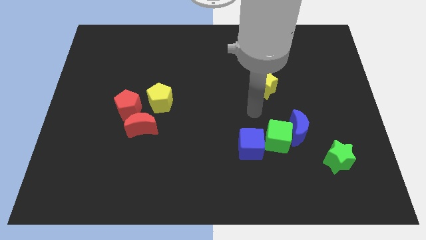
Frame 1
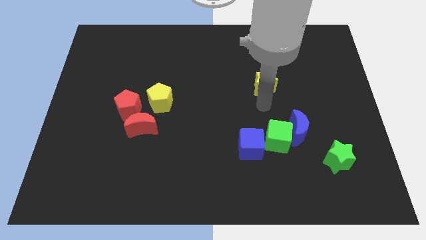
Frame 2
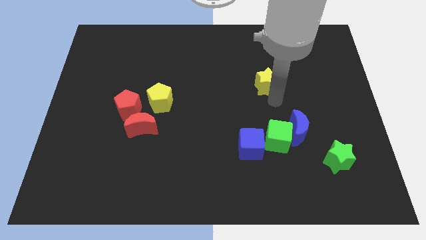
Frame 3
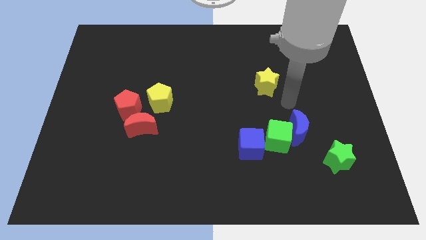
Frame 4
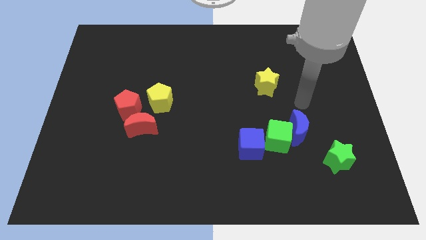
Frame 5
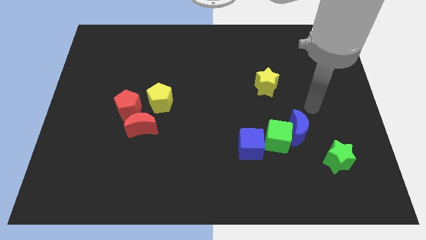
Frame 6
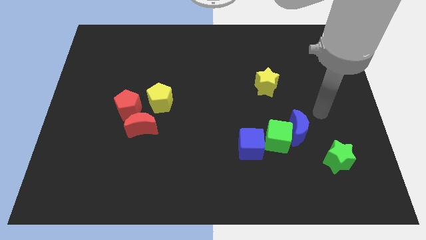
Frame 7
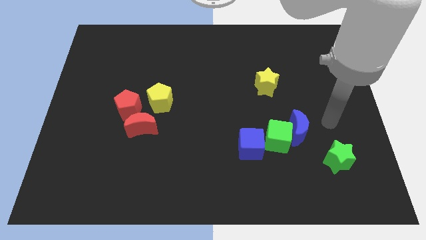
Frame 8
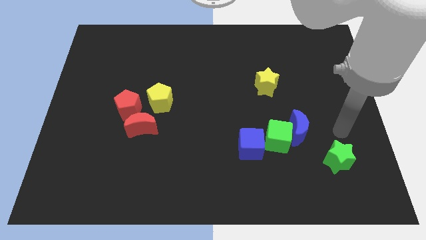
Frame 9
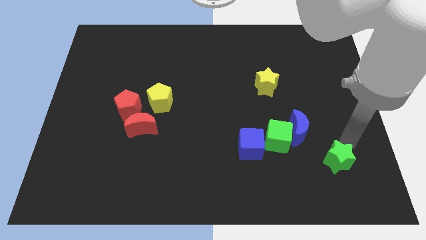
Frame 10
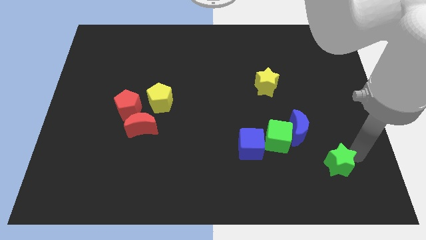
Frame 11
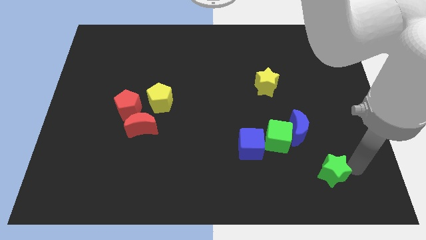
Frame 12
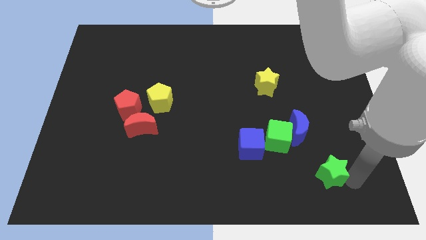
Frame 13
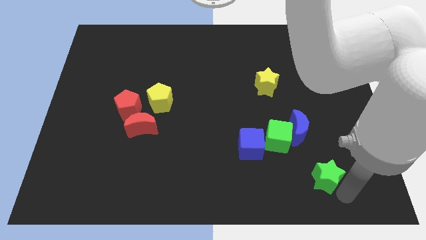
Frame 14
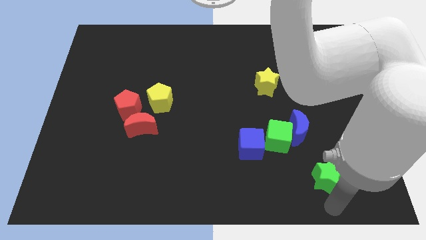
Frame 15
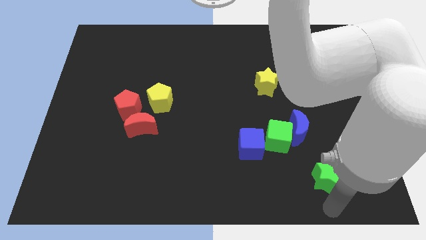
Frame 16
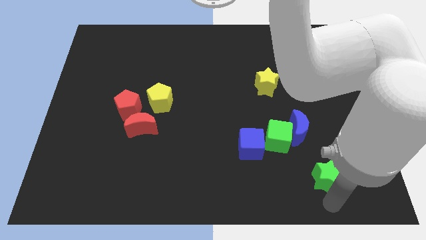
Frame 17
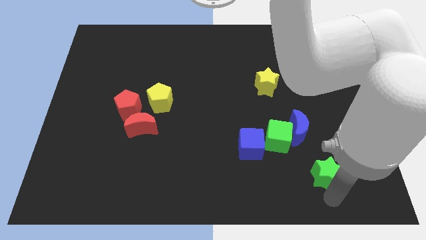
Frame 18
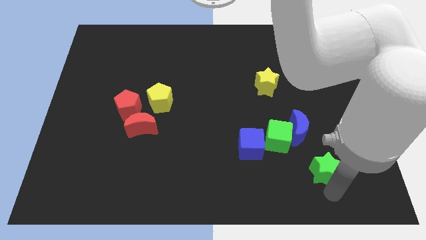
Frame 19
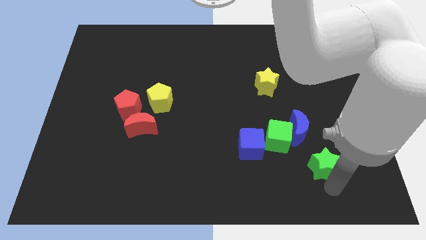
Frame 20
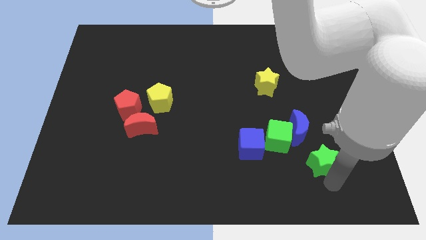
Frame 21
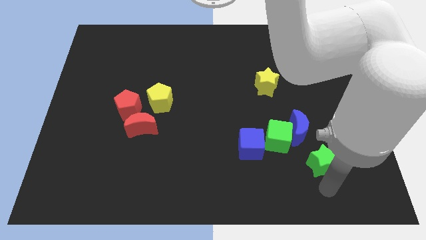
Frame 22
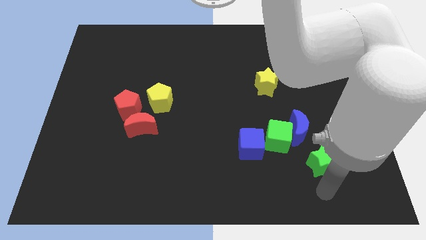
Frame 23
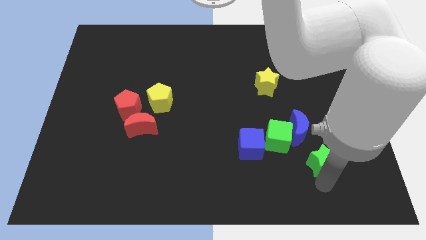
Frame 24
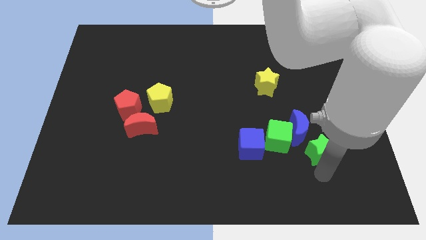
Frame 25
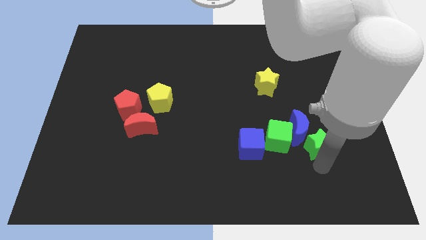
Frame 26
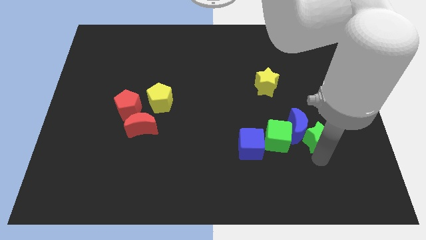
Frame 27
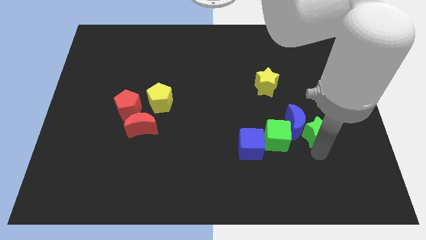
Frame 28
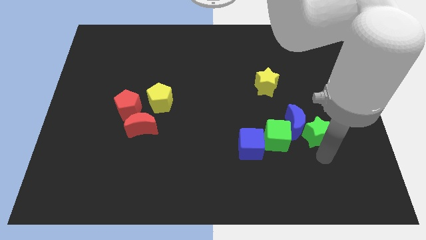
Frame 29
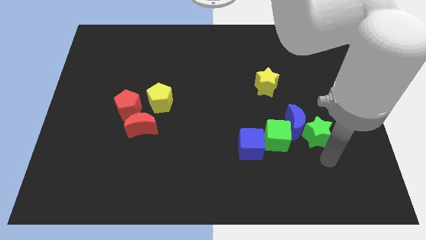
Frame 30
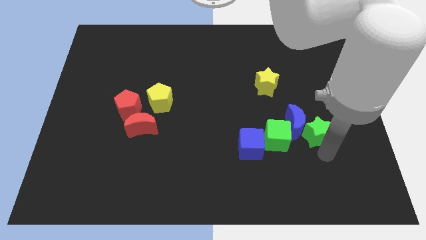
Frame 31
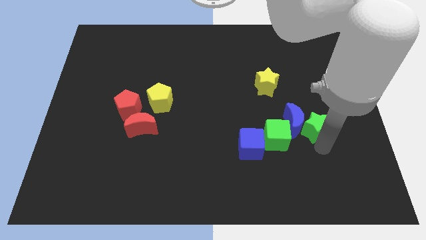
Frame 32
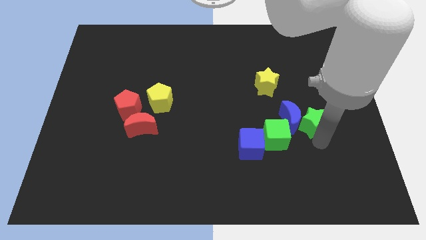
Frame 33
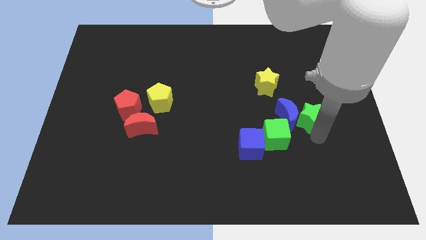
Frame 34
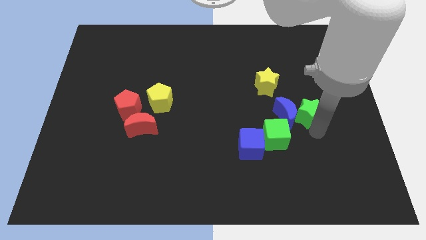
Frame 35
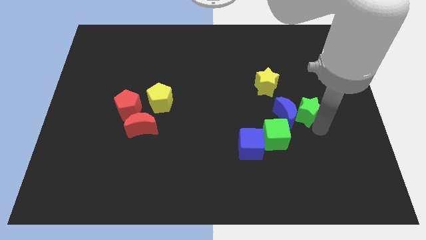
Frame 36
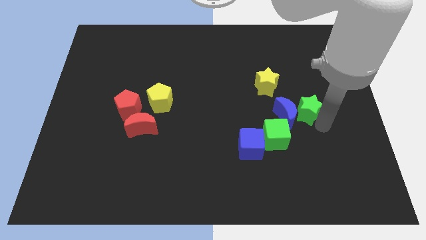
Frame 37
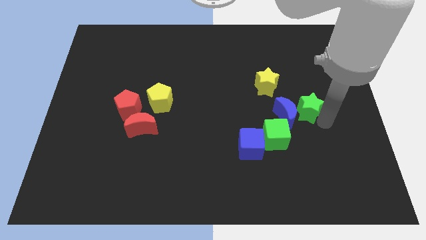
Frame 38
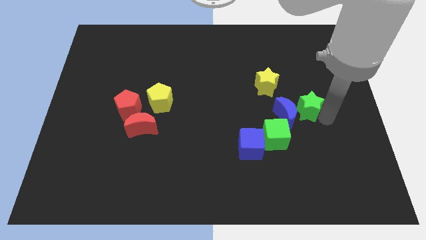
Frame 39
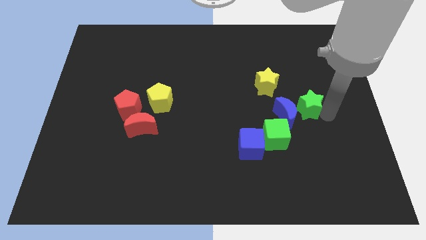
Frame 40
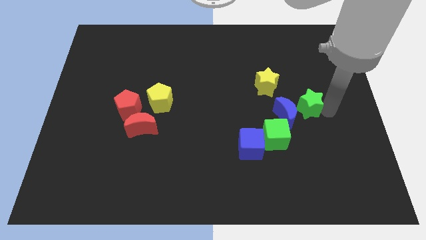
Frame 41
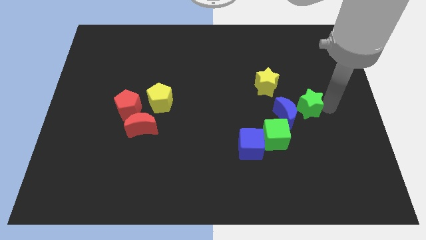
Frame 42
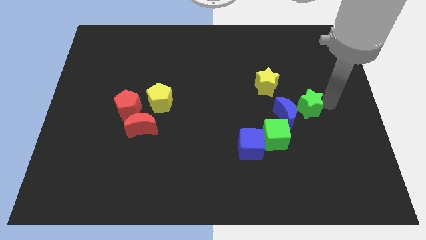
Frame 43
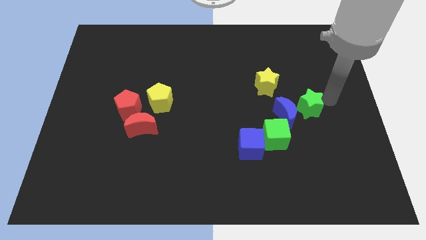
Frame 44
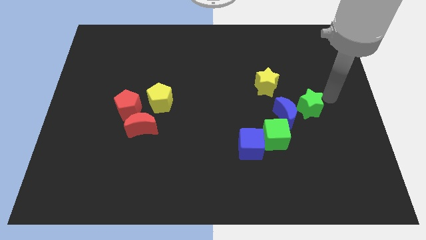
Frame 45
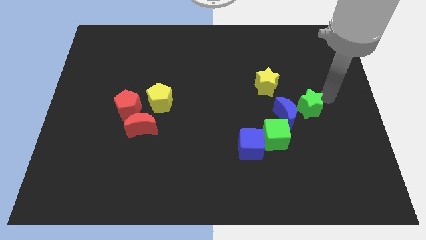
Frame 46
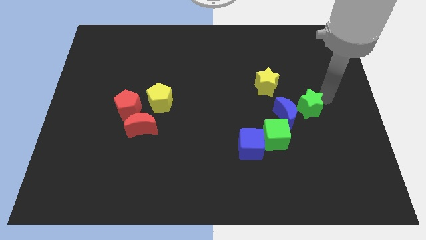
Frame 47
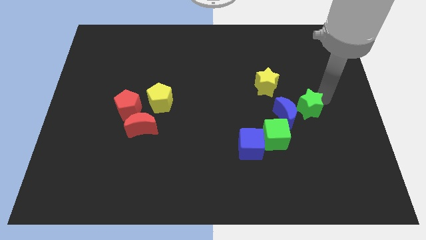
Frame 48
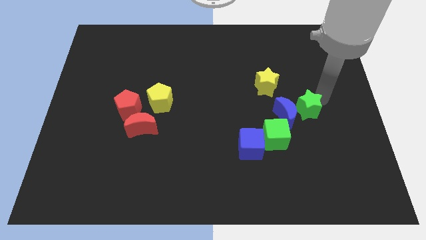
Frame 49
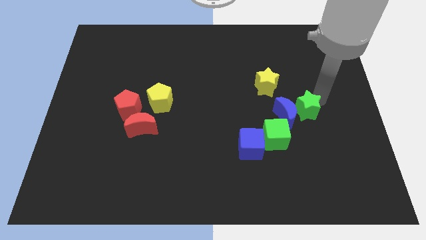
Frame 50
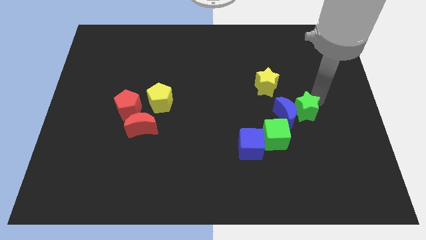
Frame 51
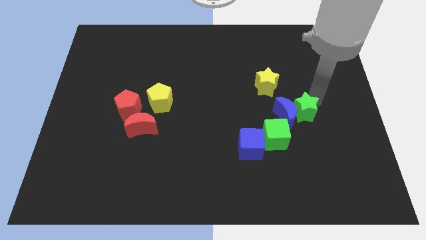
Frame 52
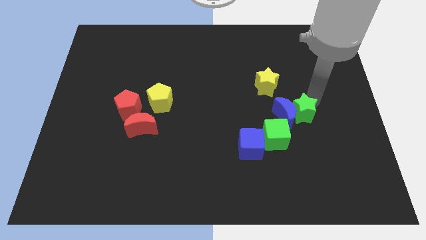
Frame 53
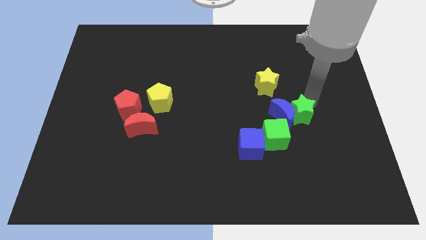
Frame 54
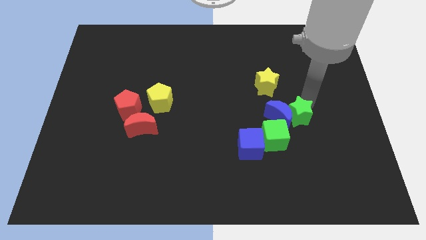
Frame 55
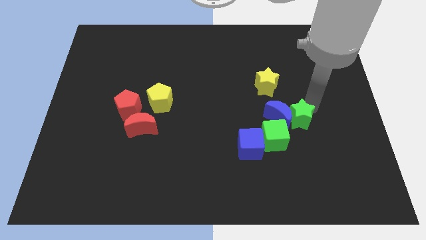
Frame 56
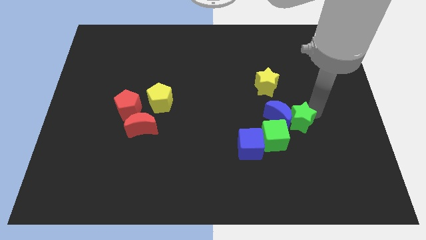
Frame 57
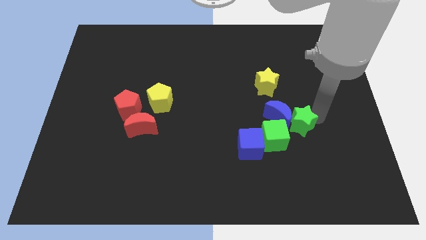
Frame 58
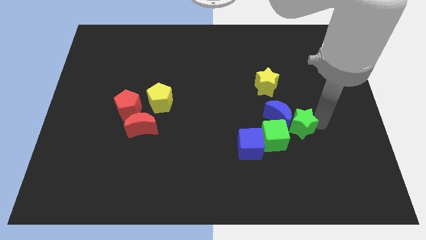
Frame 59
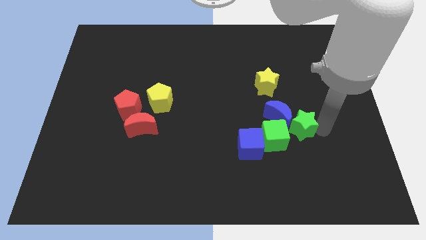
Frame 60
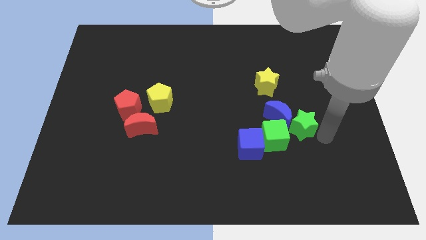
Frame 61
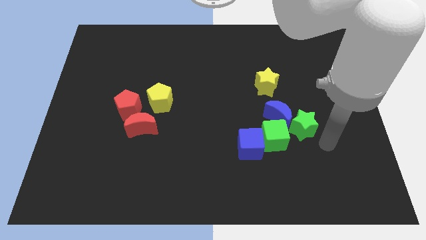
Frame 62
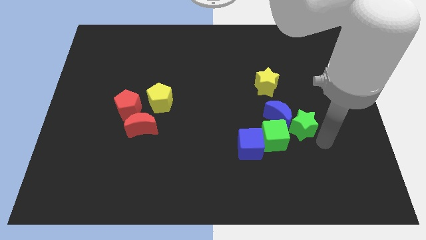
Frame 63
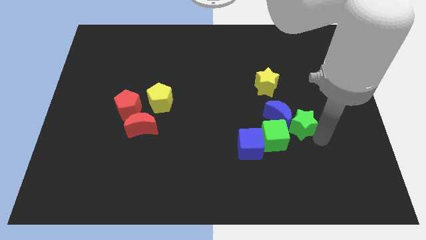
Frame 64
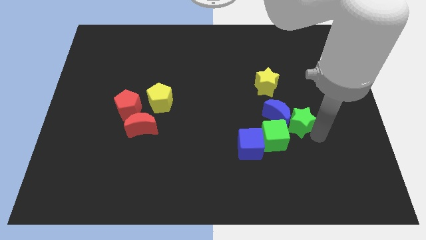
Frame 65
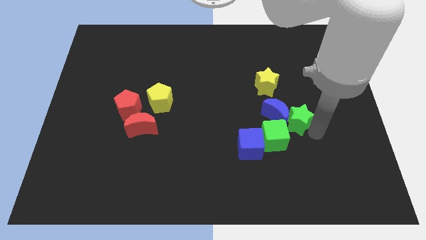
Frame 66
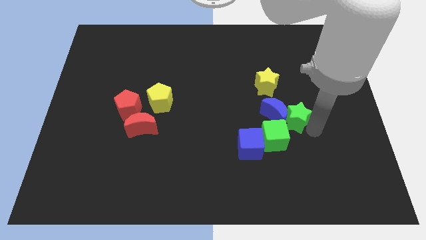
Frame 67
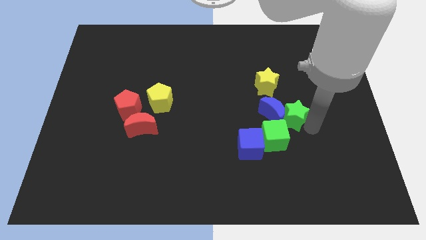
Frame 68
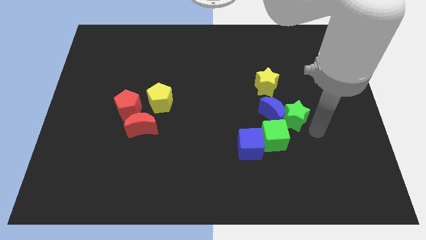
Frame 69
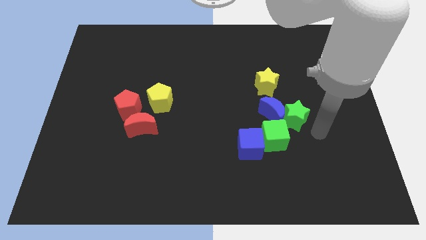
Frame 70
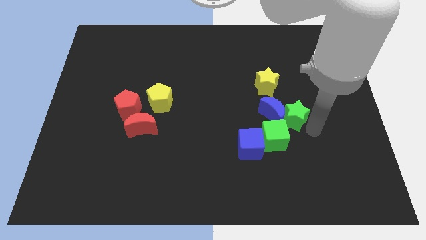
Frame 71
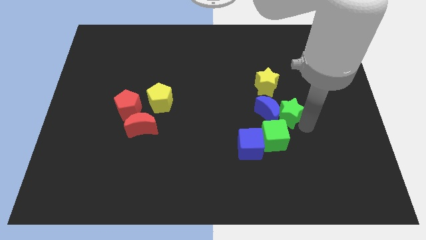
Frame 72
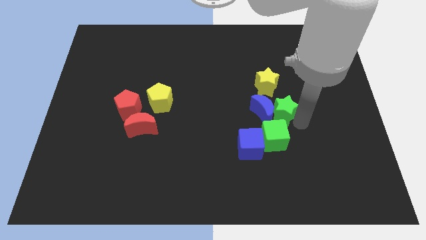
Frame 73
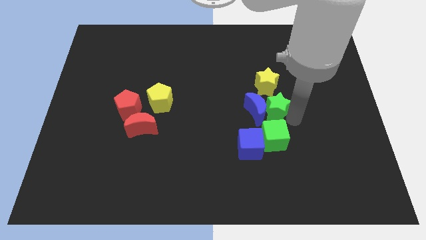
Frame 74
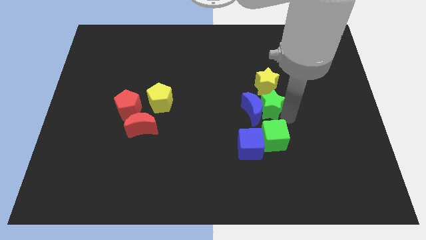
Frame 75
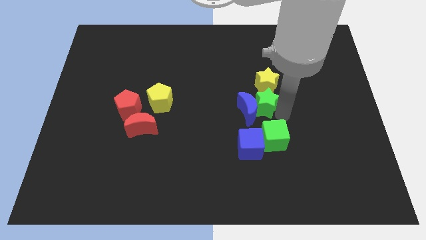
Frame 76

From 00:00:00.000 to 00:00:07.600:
slide the green star up and left diagonally

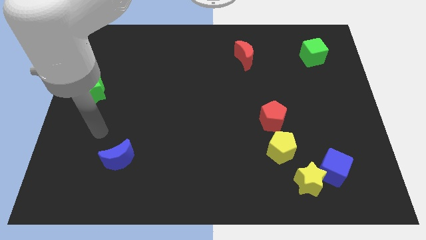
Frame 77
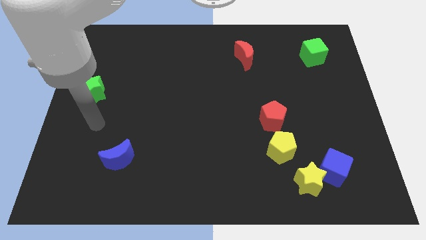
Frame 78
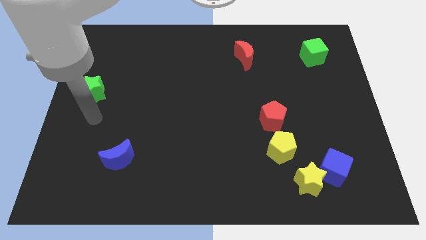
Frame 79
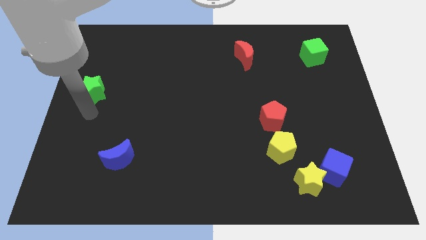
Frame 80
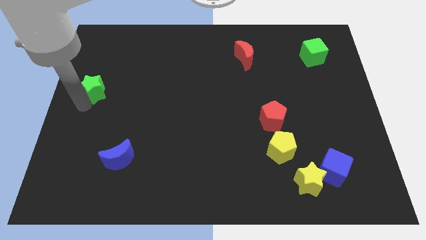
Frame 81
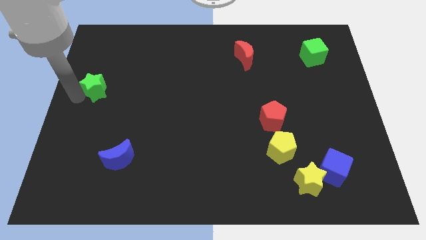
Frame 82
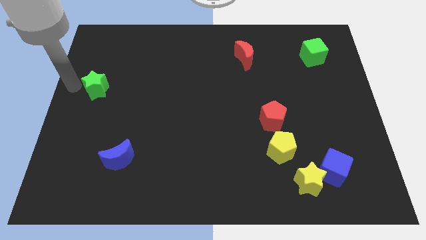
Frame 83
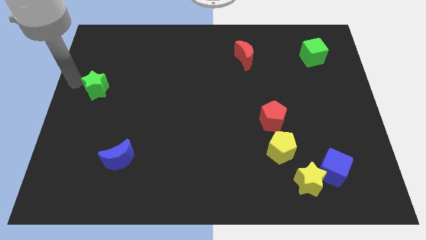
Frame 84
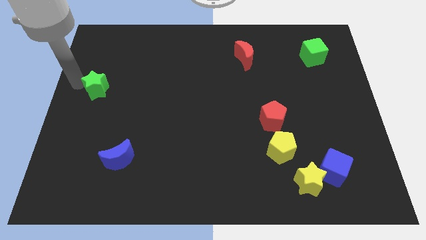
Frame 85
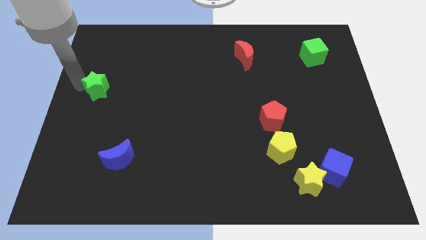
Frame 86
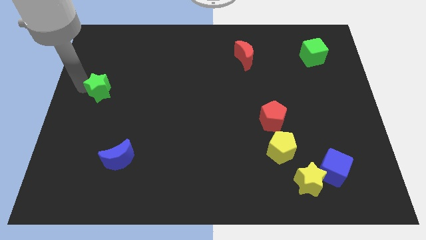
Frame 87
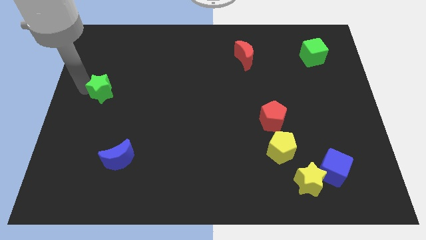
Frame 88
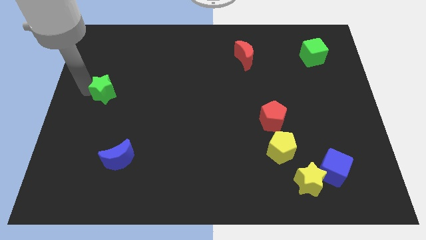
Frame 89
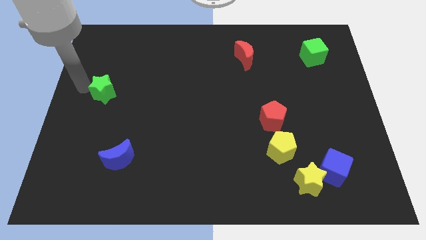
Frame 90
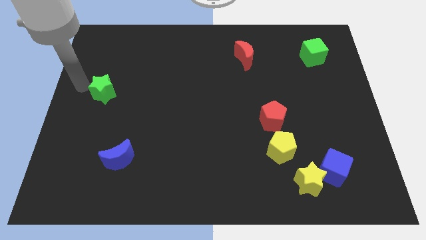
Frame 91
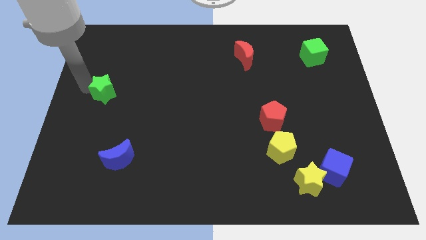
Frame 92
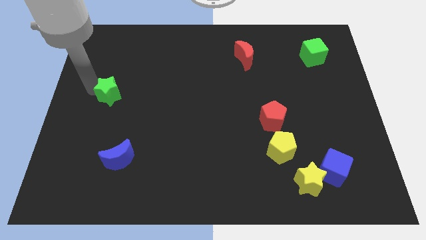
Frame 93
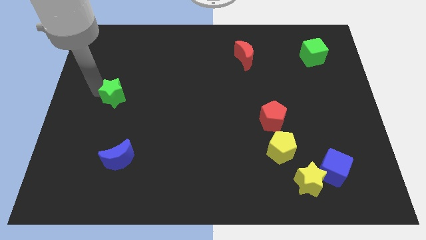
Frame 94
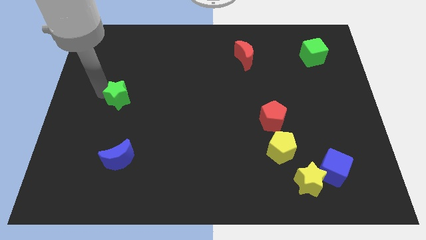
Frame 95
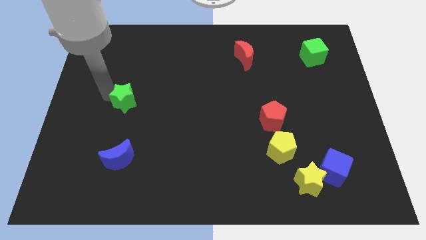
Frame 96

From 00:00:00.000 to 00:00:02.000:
slightly slide the green star to the right
